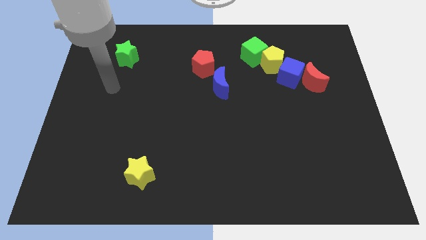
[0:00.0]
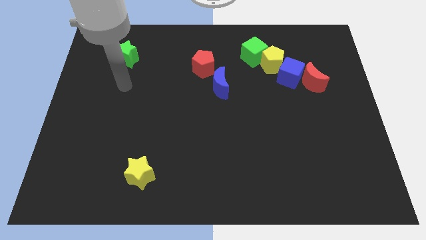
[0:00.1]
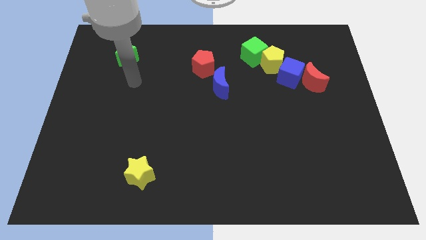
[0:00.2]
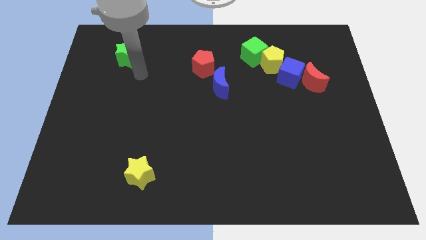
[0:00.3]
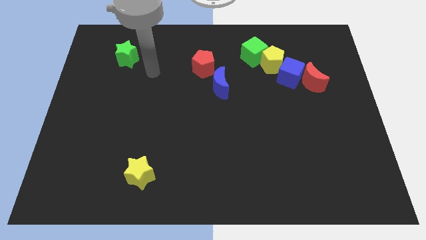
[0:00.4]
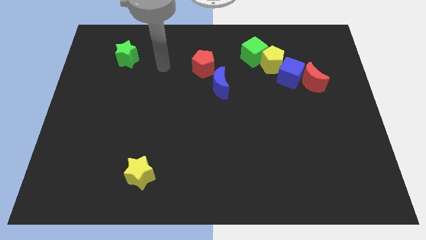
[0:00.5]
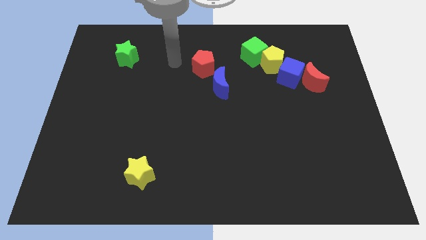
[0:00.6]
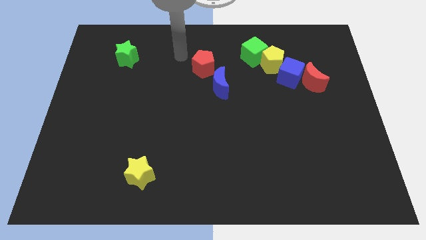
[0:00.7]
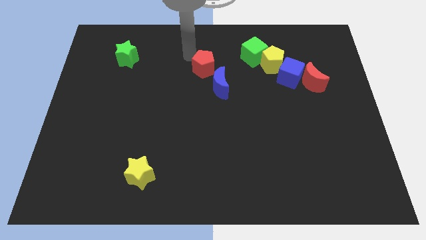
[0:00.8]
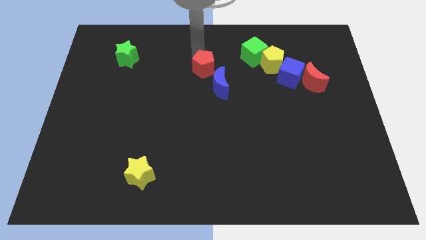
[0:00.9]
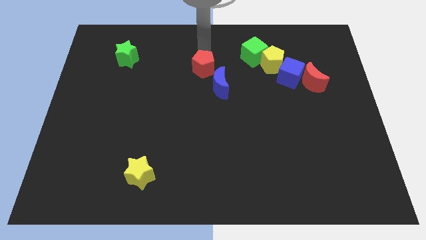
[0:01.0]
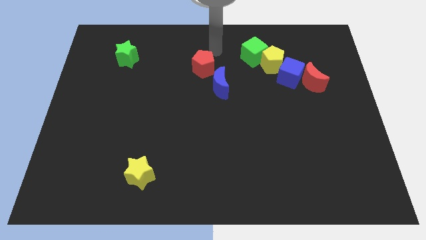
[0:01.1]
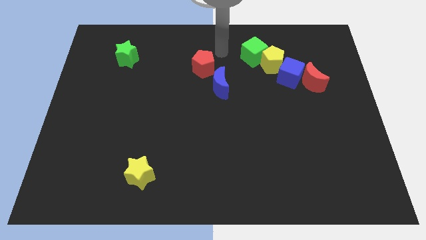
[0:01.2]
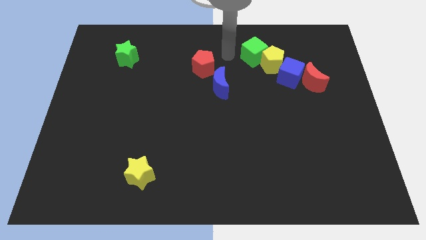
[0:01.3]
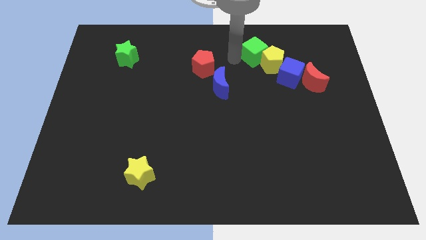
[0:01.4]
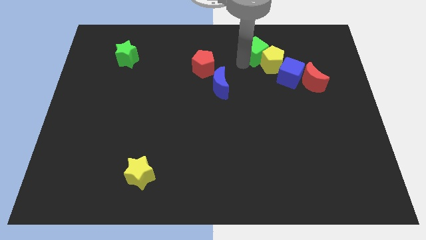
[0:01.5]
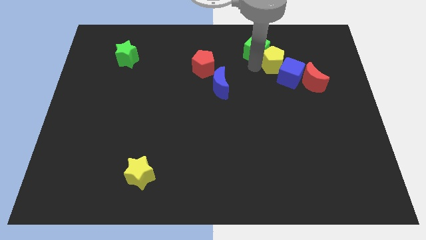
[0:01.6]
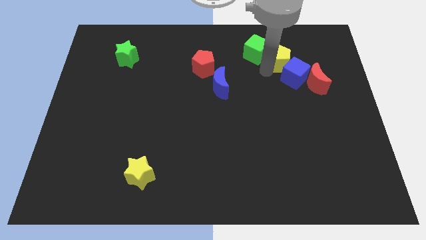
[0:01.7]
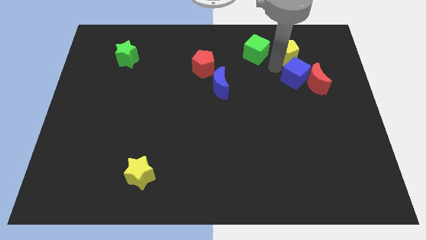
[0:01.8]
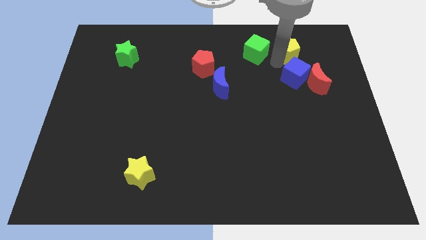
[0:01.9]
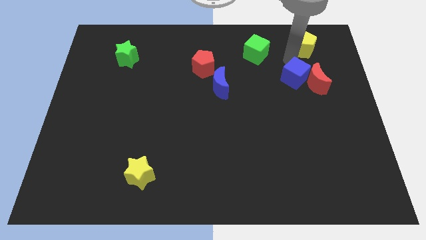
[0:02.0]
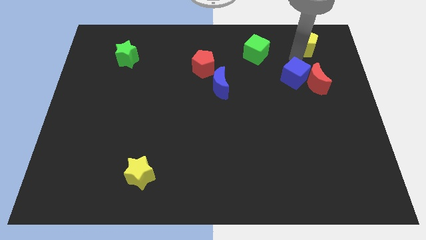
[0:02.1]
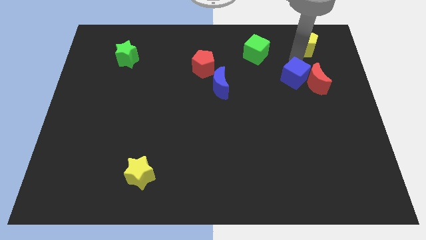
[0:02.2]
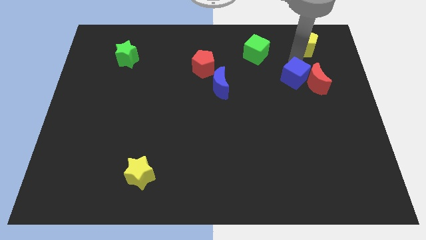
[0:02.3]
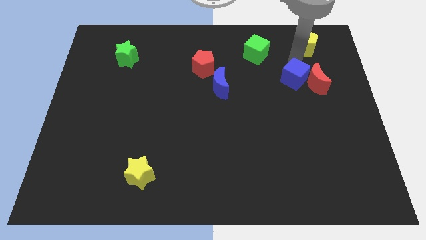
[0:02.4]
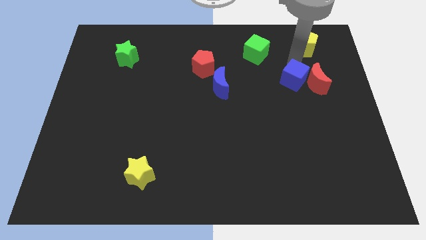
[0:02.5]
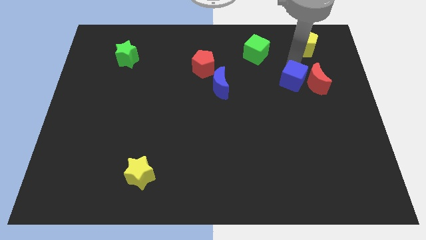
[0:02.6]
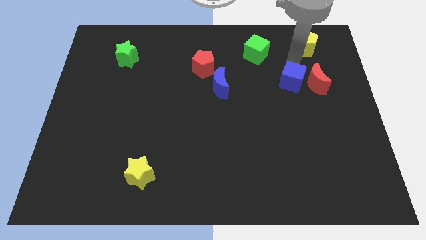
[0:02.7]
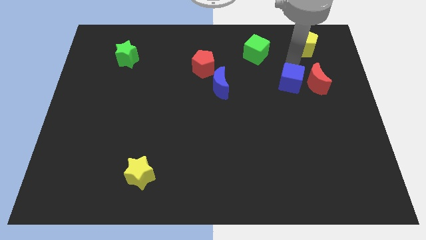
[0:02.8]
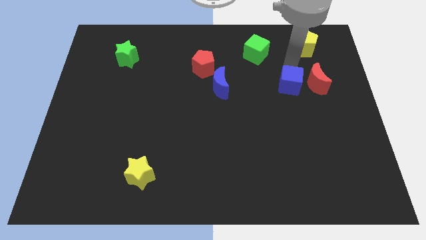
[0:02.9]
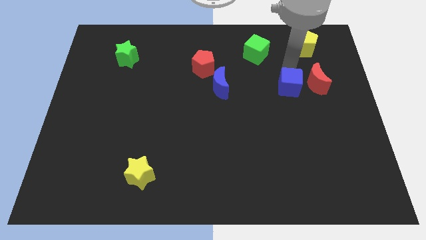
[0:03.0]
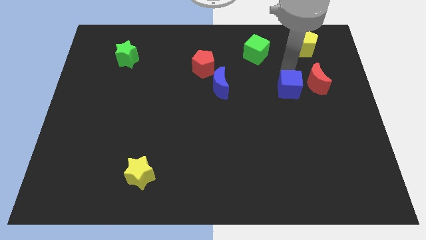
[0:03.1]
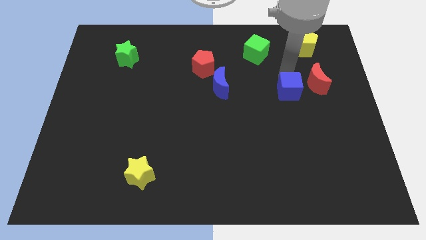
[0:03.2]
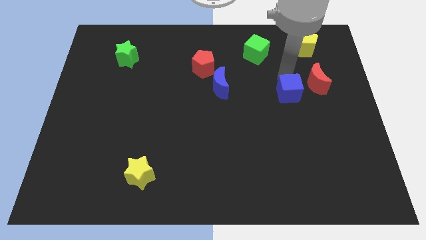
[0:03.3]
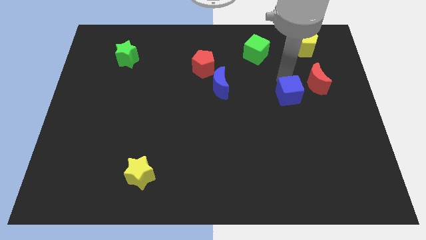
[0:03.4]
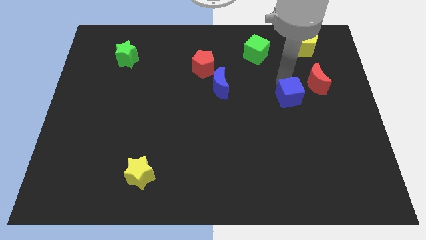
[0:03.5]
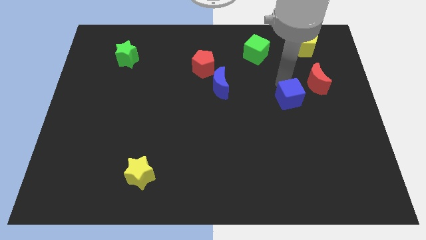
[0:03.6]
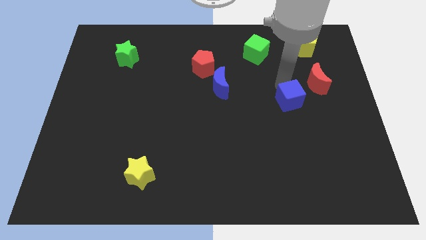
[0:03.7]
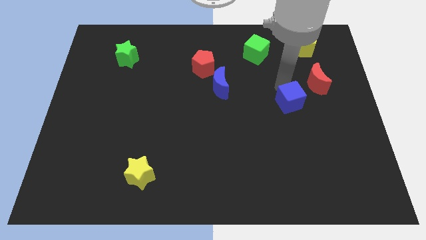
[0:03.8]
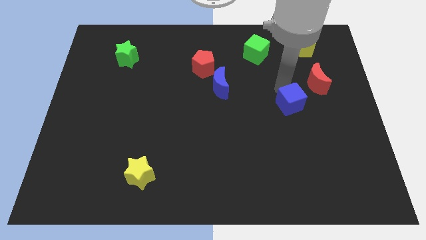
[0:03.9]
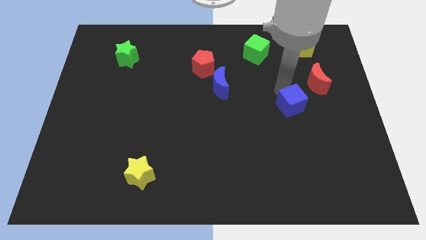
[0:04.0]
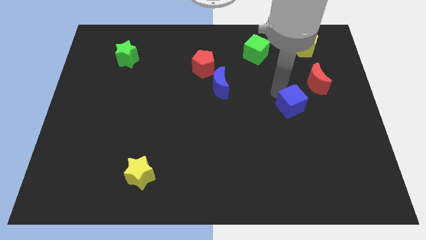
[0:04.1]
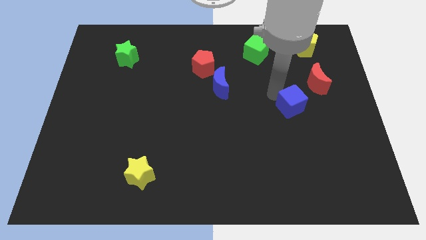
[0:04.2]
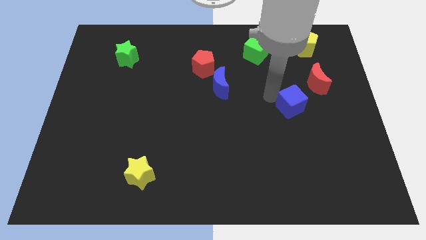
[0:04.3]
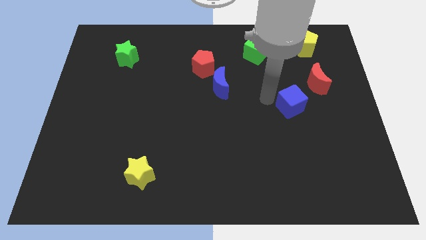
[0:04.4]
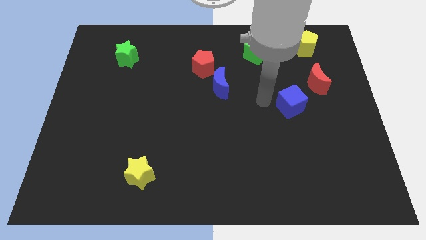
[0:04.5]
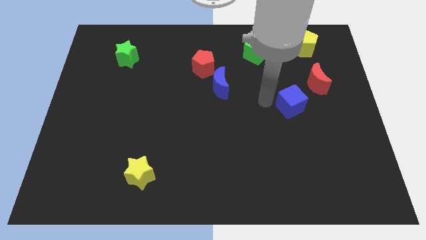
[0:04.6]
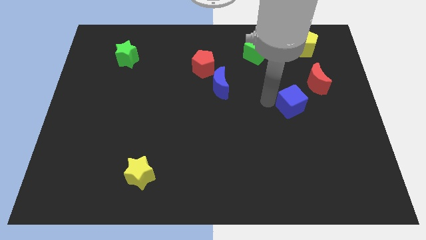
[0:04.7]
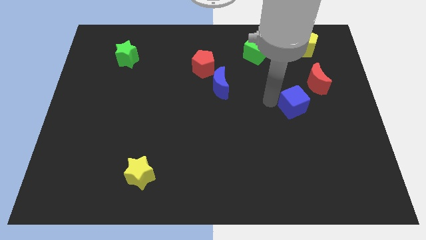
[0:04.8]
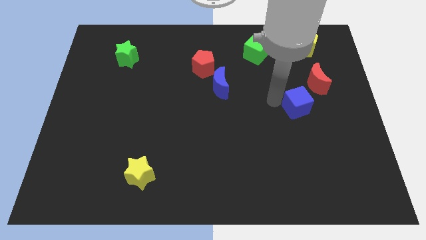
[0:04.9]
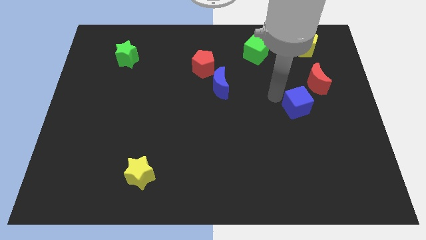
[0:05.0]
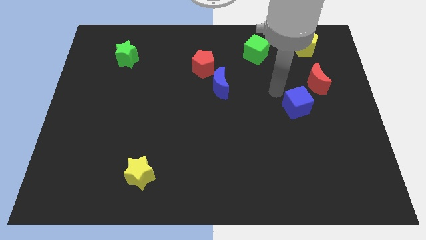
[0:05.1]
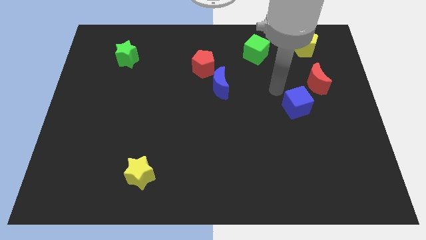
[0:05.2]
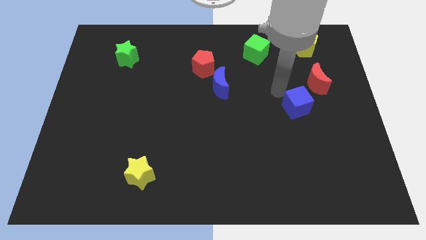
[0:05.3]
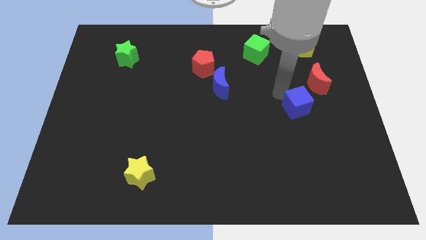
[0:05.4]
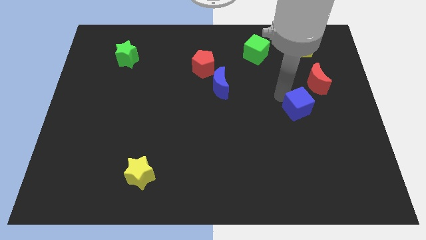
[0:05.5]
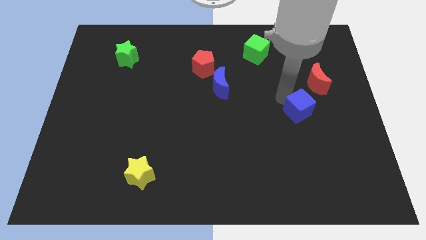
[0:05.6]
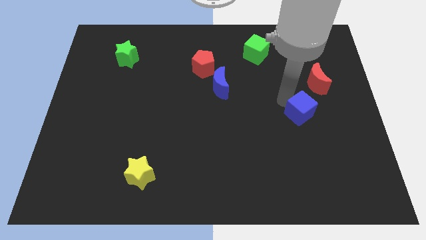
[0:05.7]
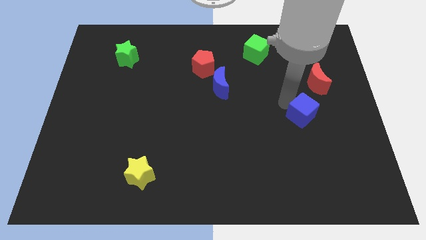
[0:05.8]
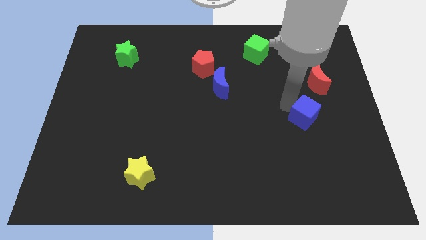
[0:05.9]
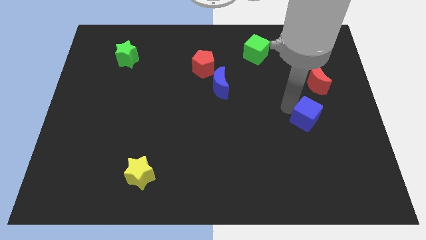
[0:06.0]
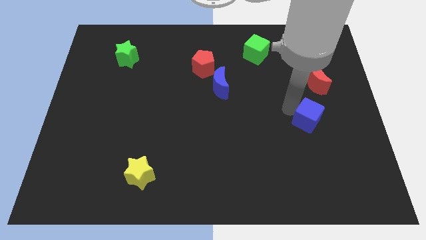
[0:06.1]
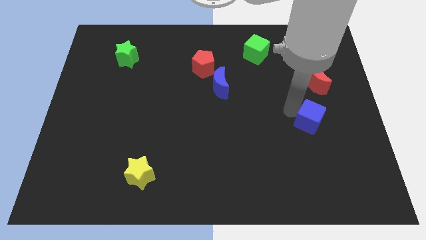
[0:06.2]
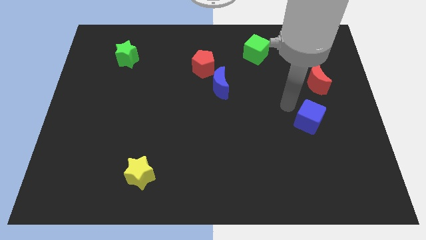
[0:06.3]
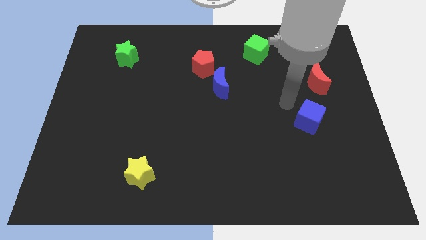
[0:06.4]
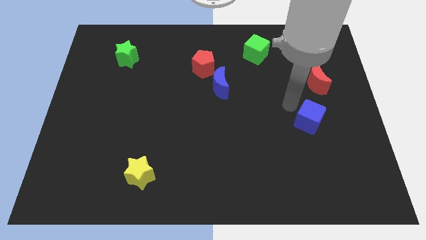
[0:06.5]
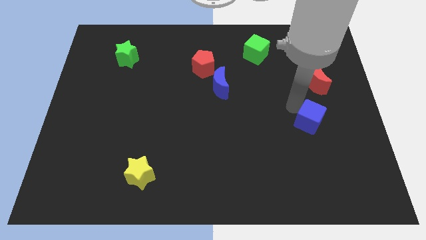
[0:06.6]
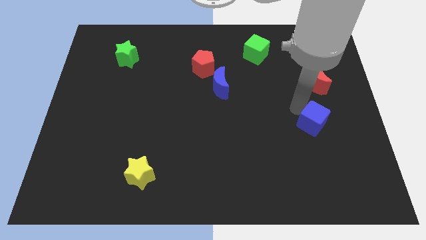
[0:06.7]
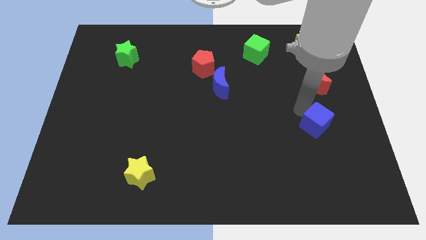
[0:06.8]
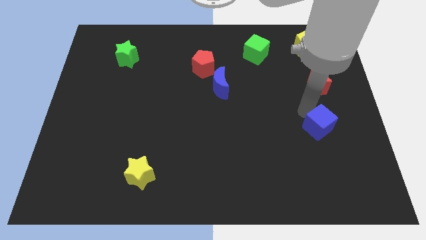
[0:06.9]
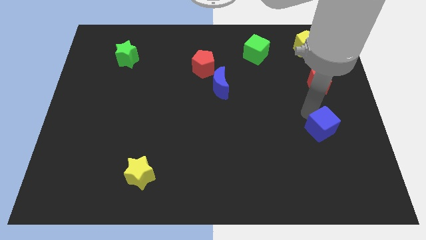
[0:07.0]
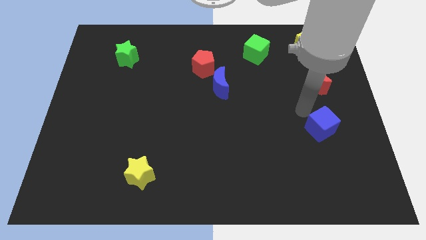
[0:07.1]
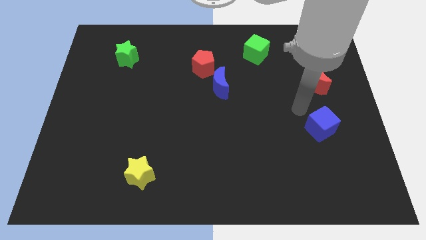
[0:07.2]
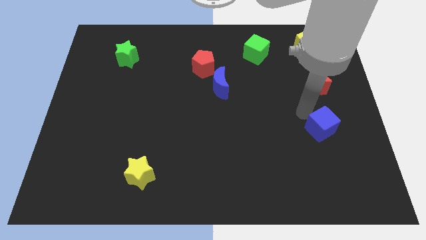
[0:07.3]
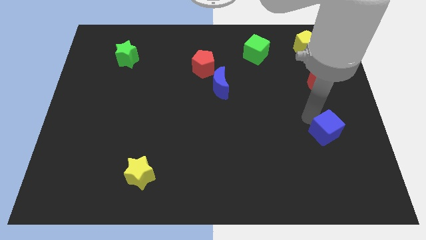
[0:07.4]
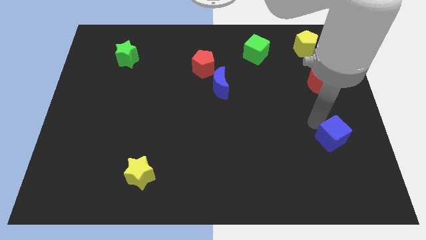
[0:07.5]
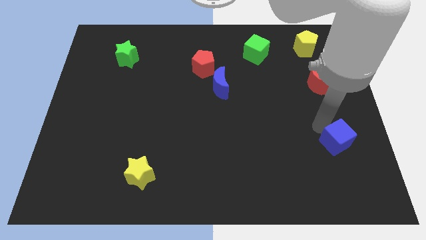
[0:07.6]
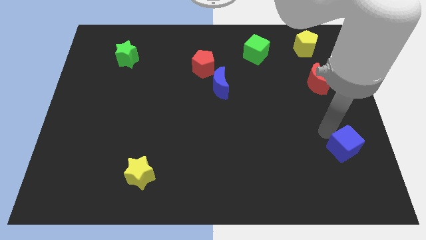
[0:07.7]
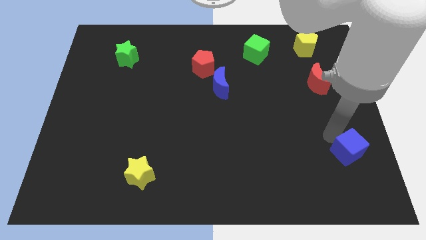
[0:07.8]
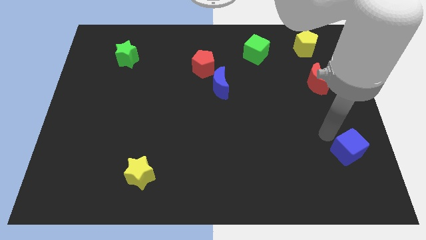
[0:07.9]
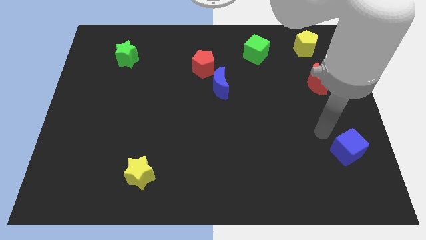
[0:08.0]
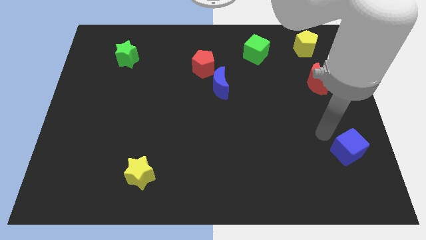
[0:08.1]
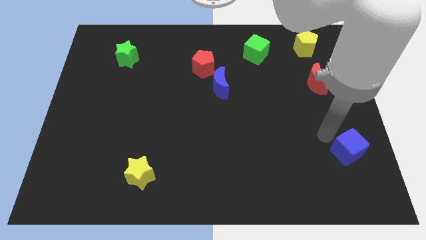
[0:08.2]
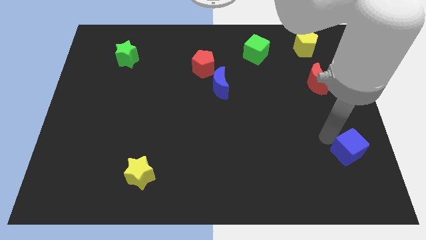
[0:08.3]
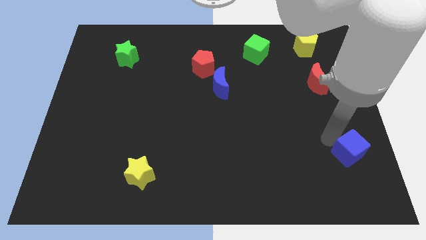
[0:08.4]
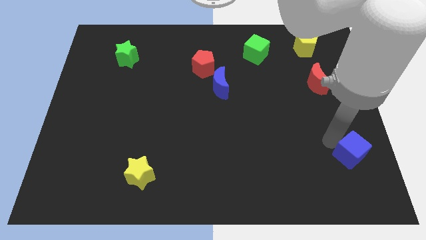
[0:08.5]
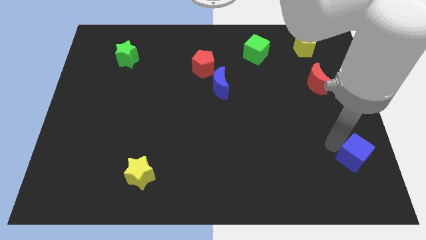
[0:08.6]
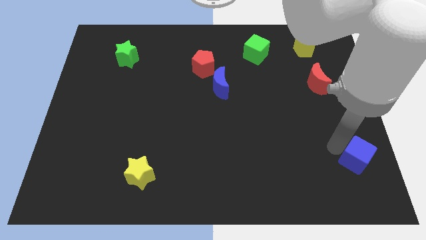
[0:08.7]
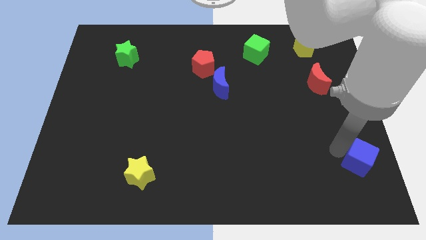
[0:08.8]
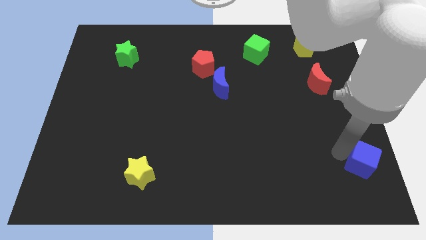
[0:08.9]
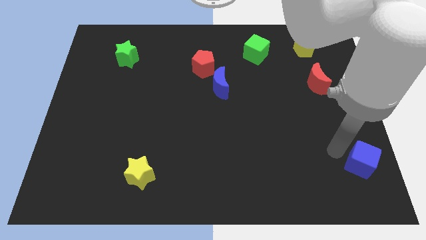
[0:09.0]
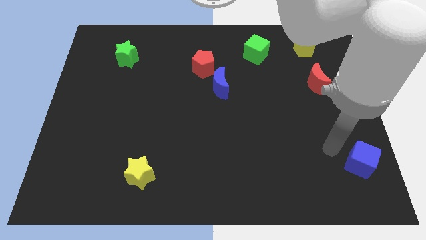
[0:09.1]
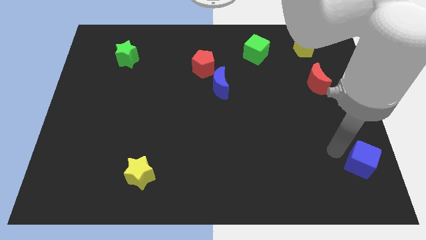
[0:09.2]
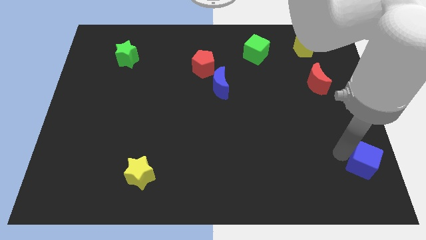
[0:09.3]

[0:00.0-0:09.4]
slide the blue cube to the bottom right of the board
